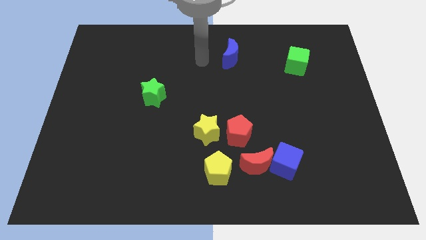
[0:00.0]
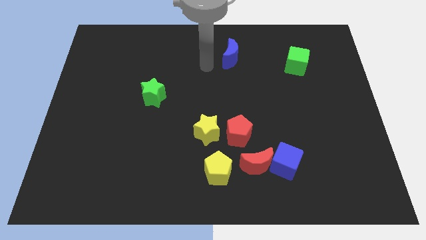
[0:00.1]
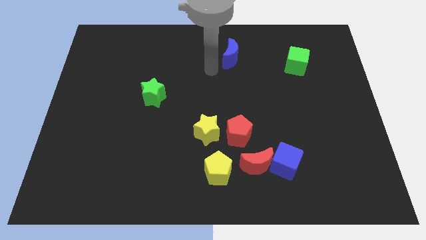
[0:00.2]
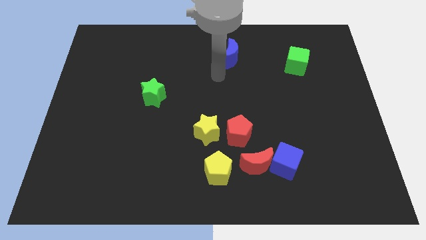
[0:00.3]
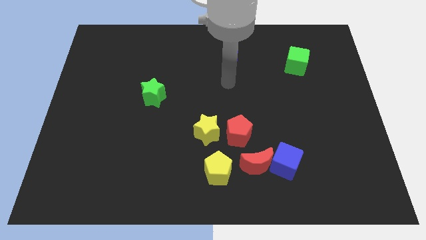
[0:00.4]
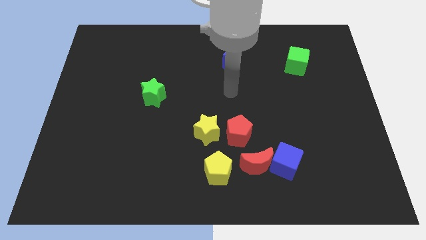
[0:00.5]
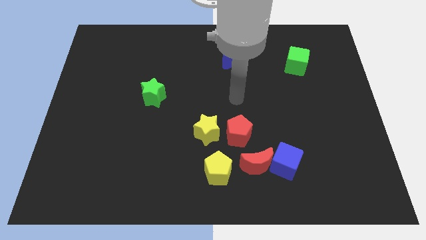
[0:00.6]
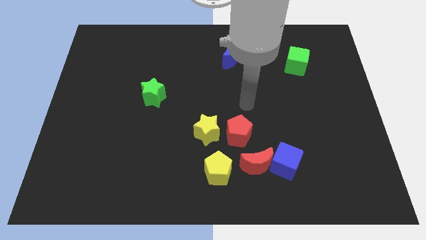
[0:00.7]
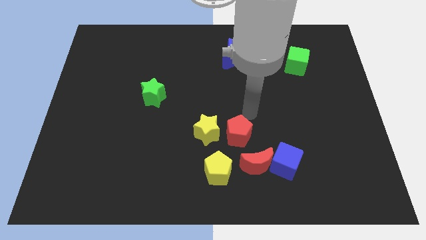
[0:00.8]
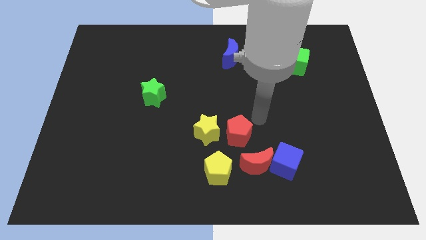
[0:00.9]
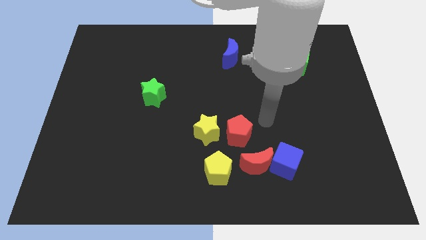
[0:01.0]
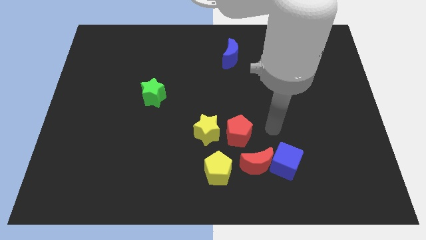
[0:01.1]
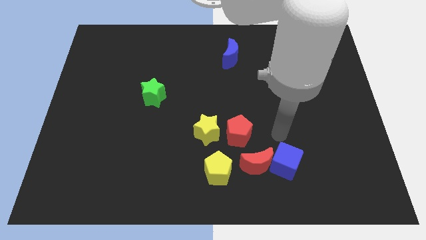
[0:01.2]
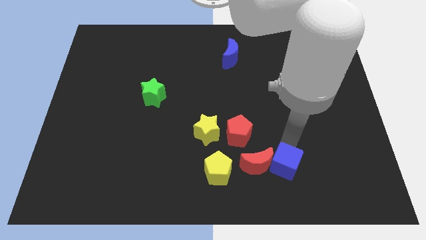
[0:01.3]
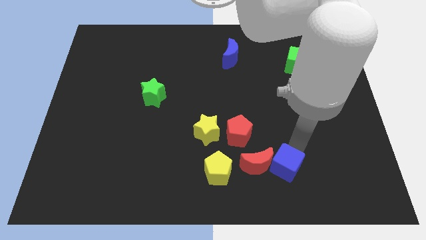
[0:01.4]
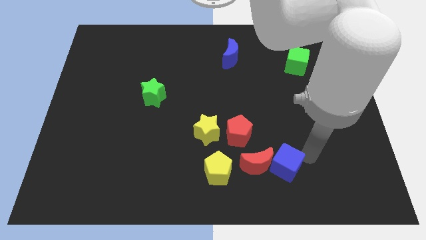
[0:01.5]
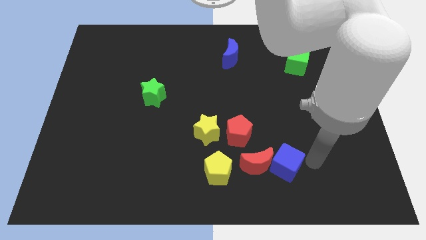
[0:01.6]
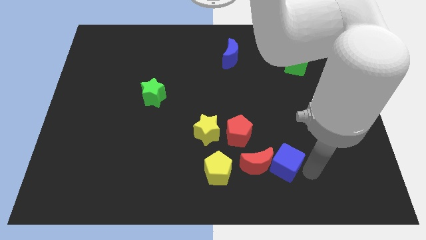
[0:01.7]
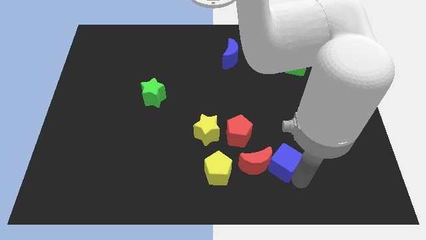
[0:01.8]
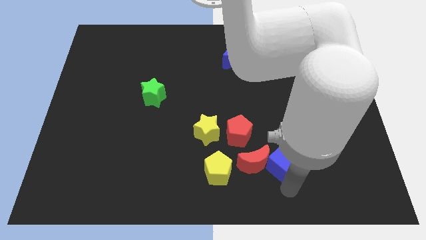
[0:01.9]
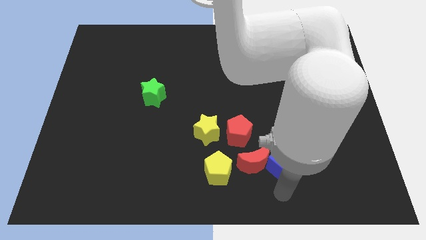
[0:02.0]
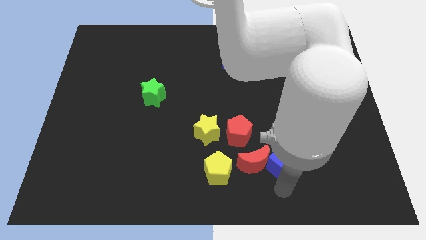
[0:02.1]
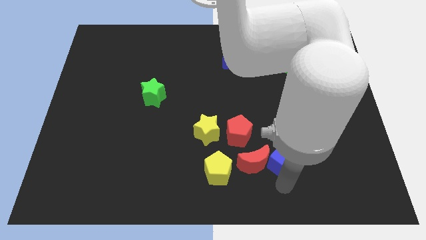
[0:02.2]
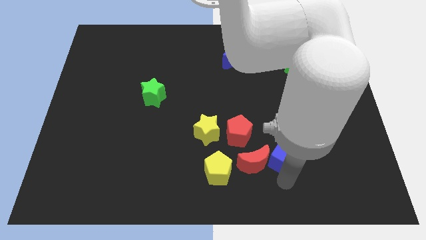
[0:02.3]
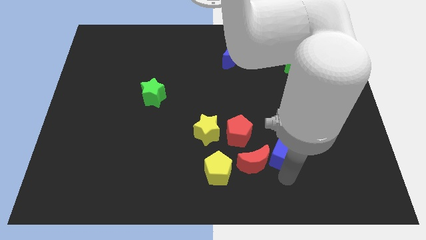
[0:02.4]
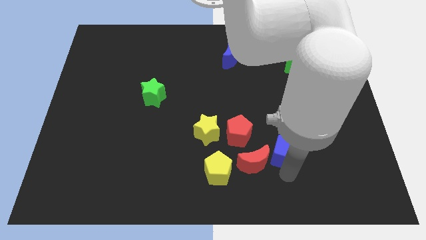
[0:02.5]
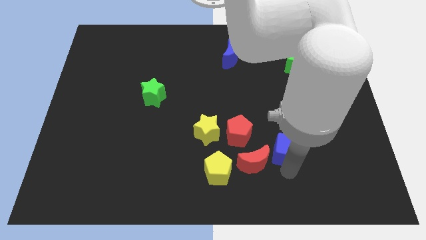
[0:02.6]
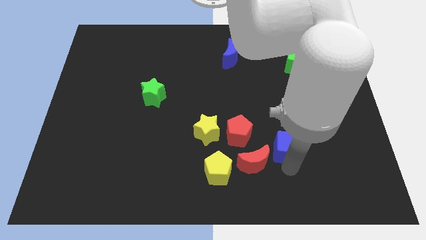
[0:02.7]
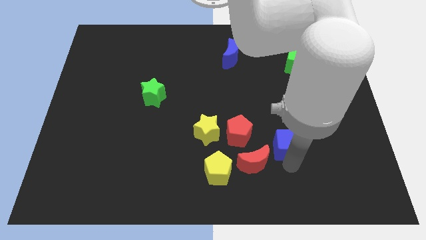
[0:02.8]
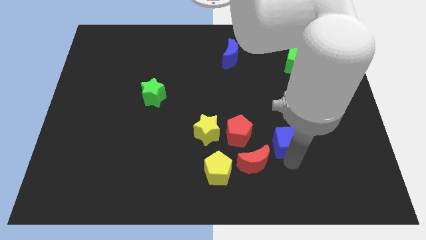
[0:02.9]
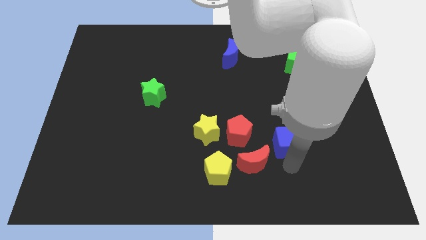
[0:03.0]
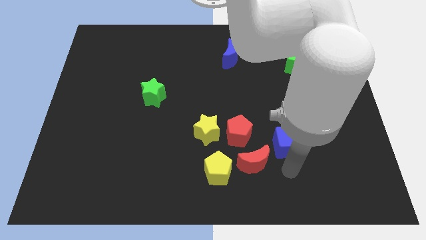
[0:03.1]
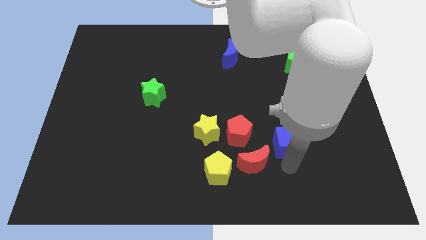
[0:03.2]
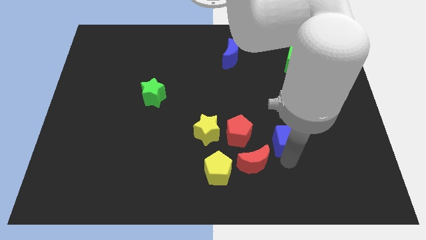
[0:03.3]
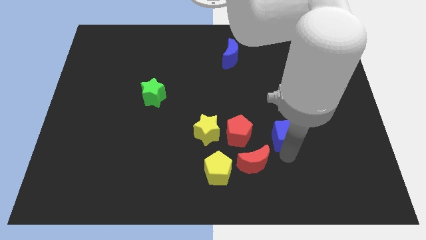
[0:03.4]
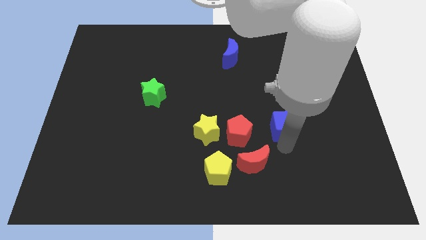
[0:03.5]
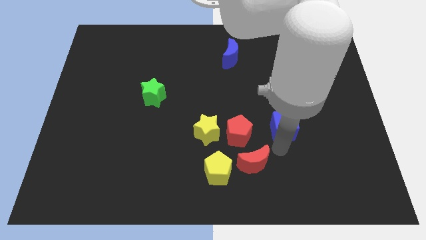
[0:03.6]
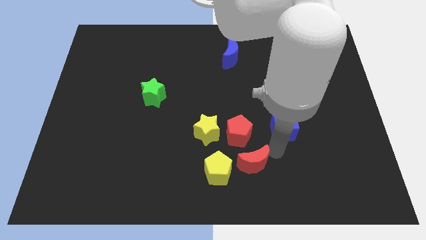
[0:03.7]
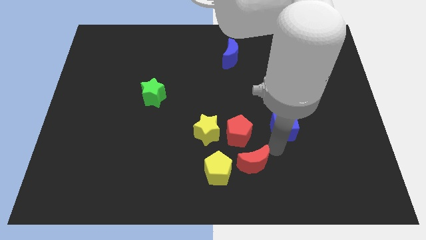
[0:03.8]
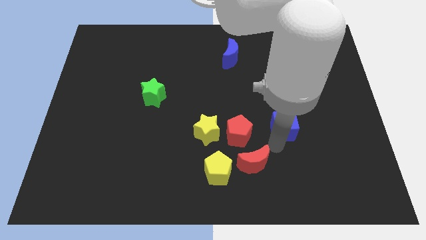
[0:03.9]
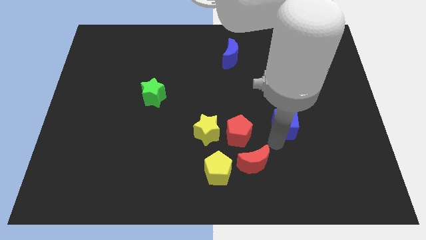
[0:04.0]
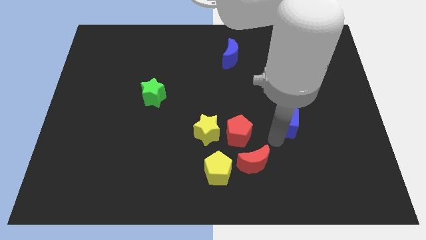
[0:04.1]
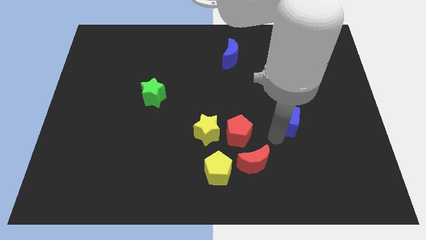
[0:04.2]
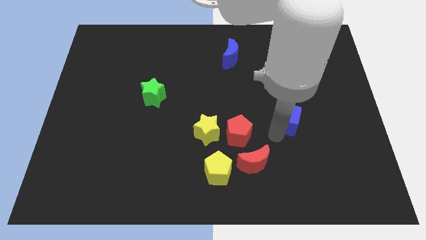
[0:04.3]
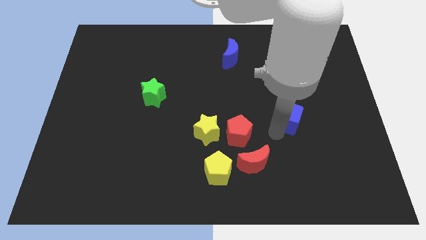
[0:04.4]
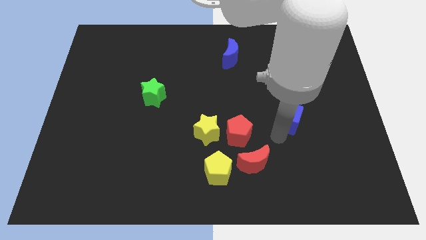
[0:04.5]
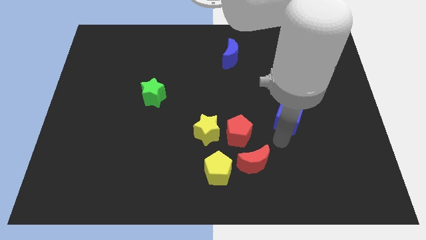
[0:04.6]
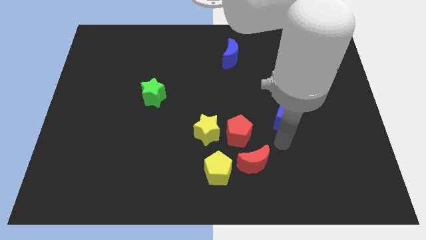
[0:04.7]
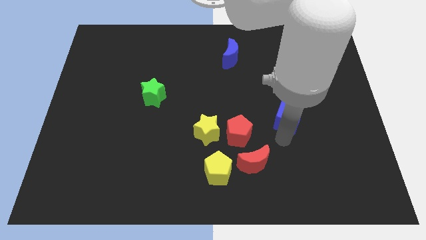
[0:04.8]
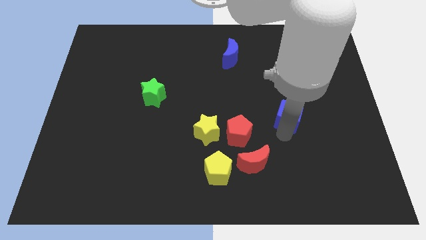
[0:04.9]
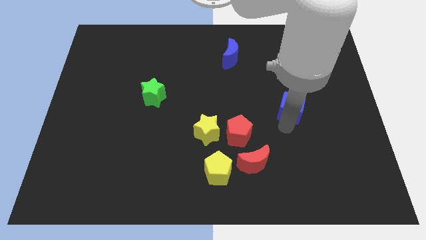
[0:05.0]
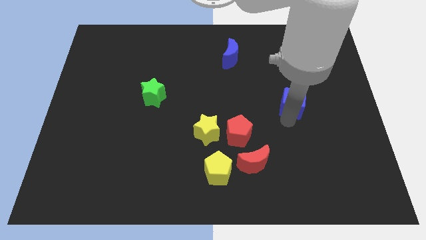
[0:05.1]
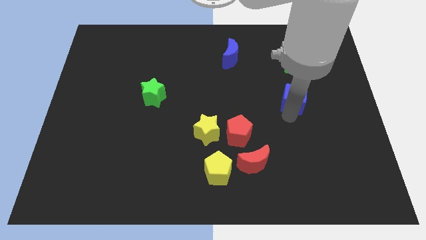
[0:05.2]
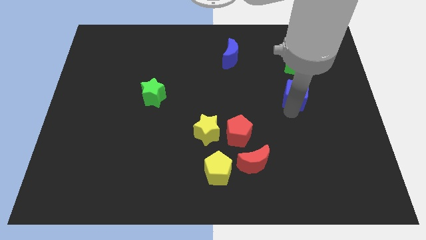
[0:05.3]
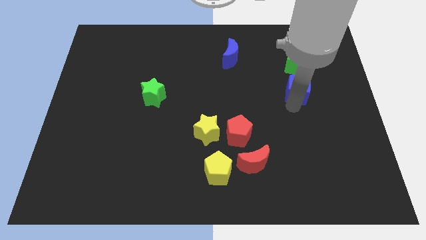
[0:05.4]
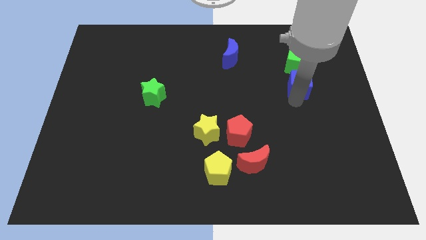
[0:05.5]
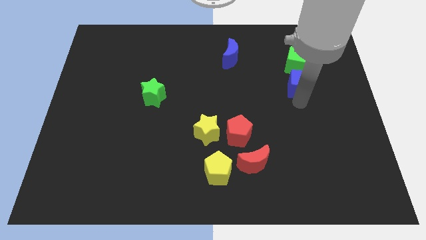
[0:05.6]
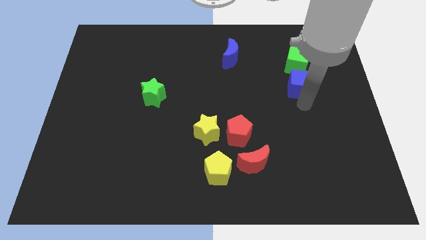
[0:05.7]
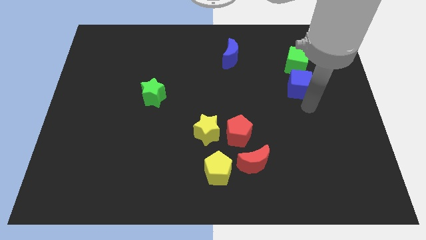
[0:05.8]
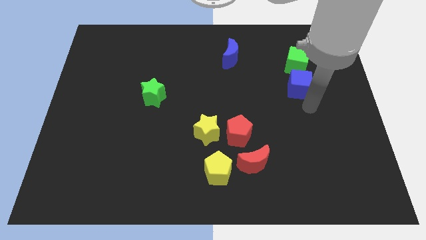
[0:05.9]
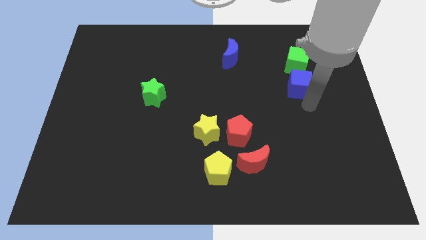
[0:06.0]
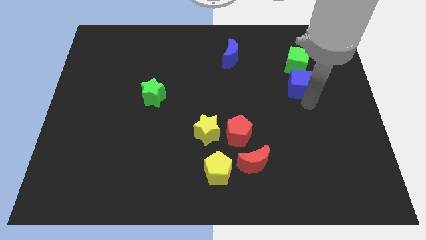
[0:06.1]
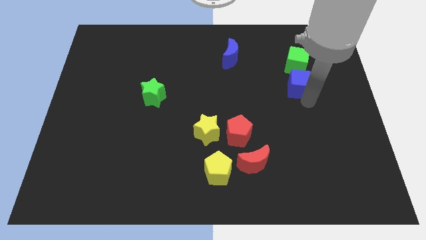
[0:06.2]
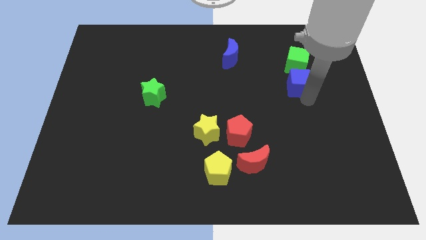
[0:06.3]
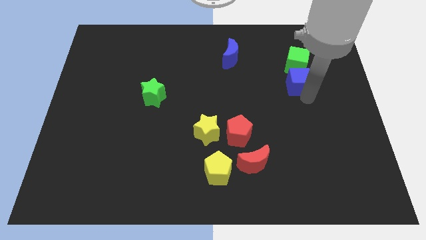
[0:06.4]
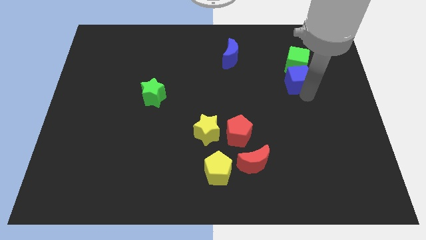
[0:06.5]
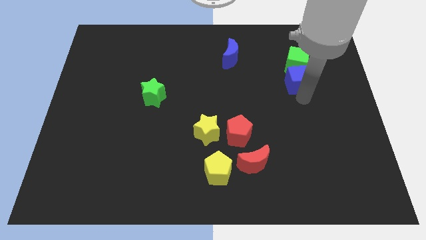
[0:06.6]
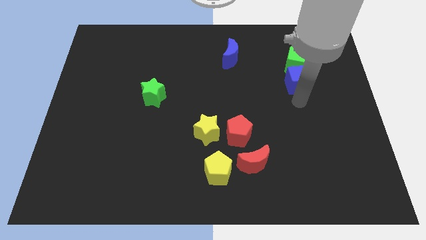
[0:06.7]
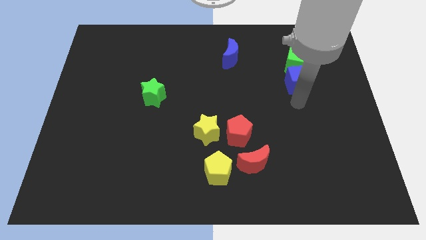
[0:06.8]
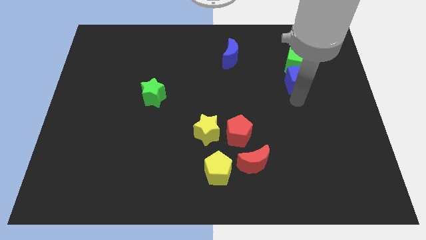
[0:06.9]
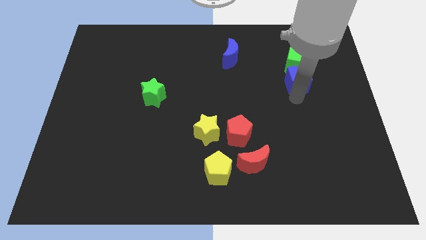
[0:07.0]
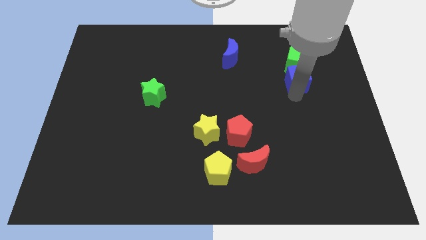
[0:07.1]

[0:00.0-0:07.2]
put the blue cube to the green cube

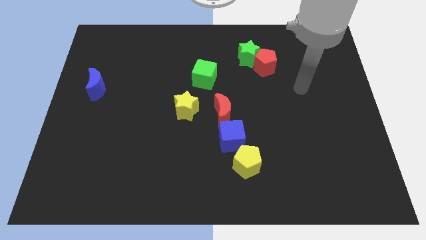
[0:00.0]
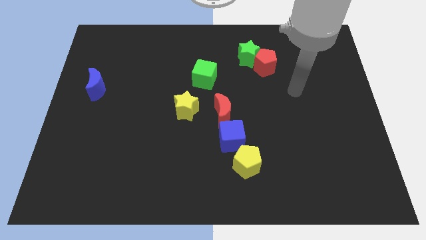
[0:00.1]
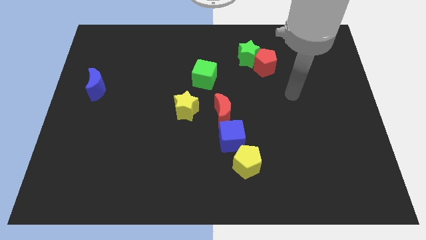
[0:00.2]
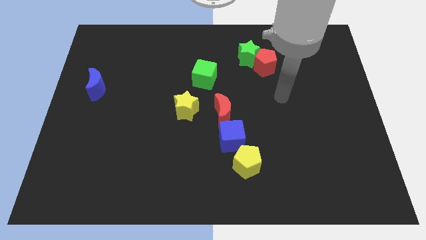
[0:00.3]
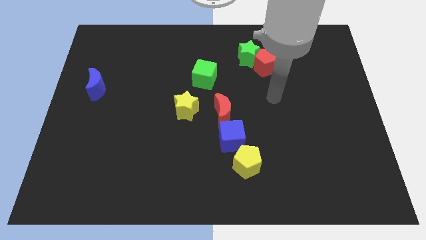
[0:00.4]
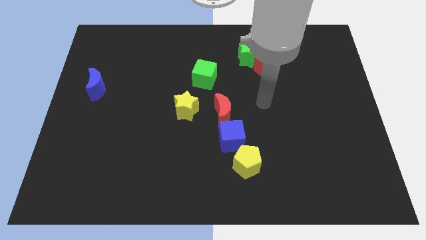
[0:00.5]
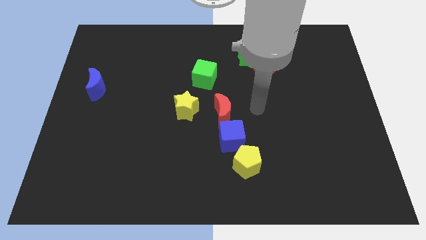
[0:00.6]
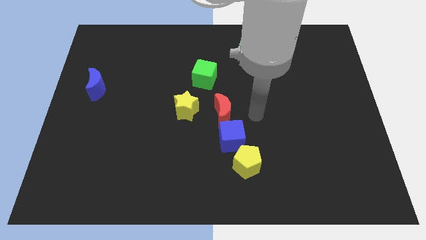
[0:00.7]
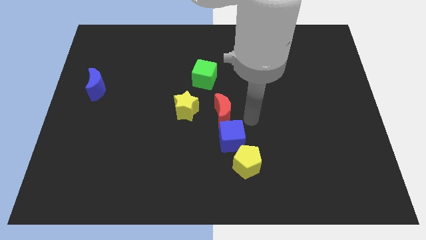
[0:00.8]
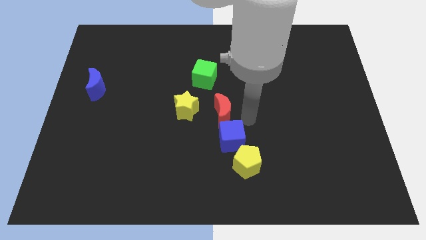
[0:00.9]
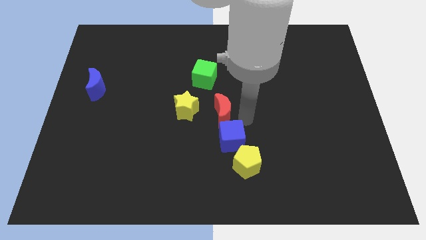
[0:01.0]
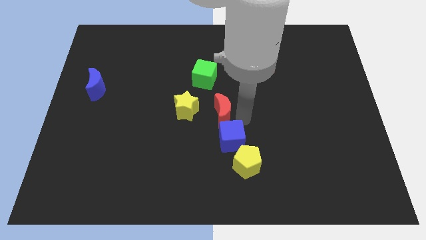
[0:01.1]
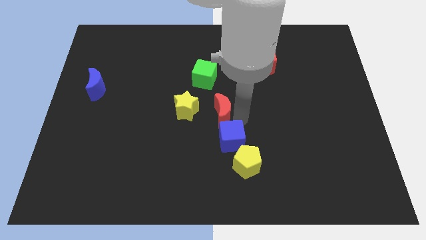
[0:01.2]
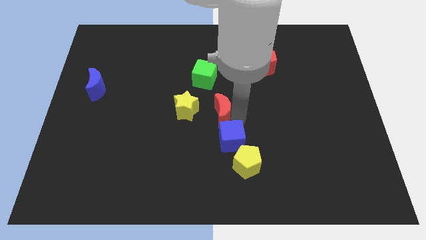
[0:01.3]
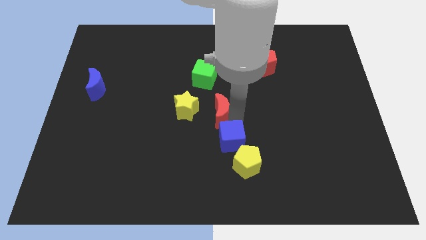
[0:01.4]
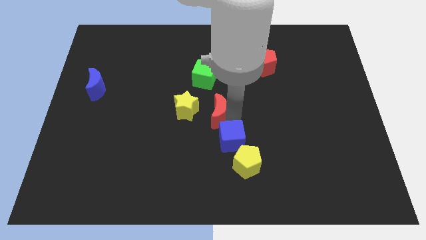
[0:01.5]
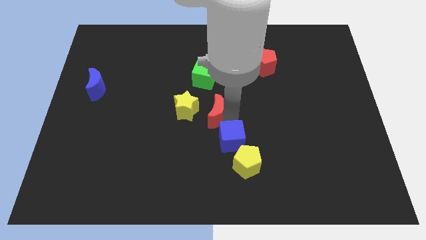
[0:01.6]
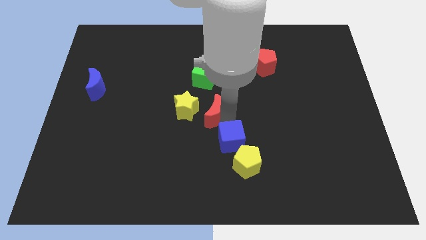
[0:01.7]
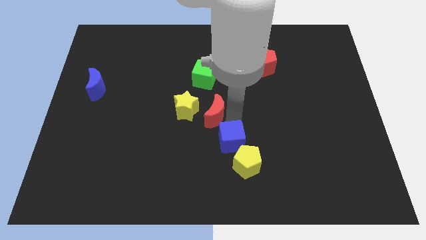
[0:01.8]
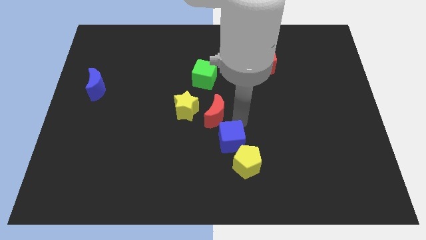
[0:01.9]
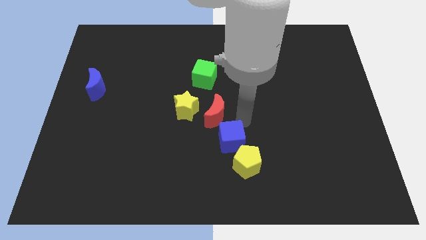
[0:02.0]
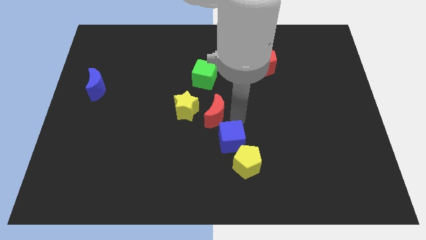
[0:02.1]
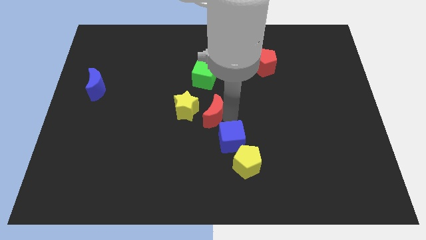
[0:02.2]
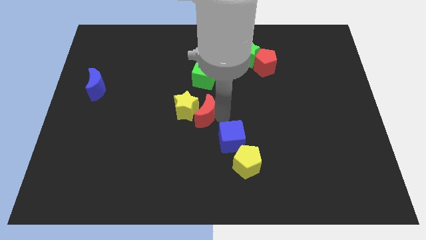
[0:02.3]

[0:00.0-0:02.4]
push the red moon next to the yellow star
